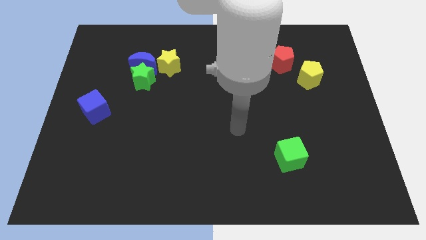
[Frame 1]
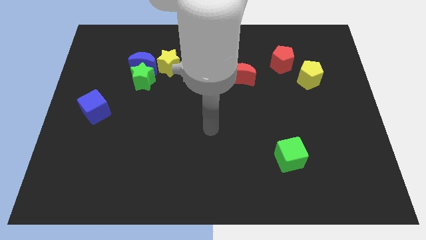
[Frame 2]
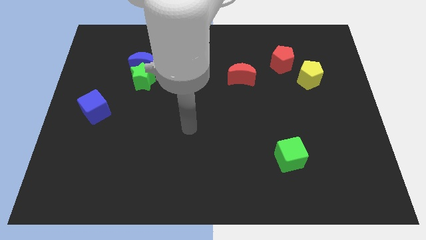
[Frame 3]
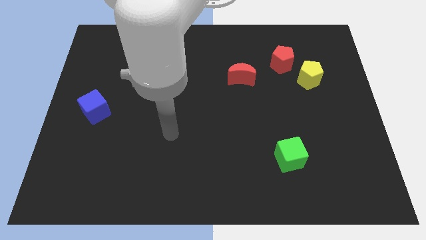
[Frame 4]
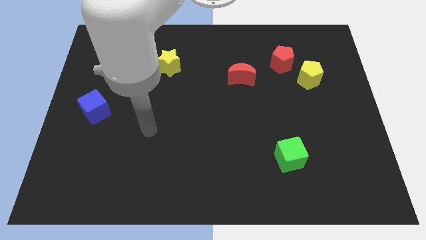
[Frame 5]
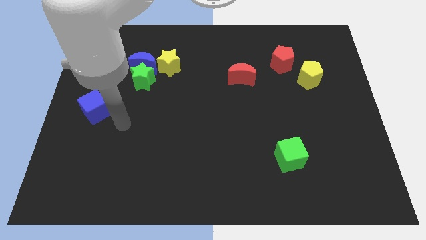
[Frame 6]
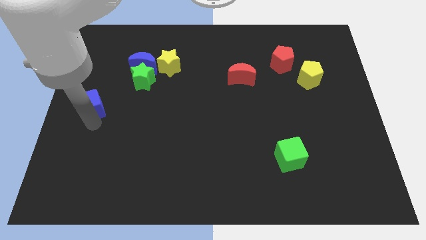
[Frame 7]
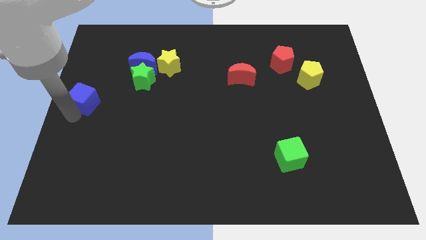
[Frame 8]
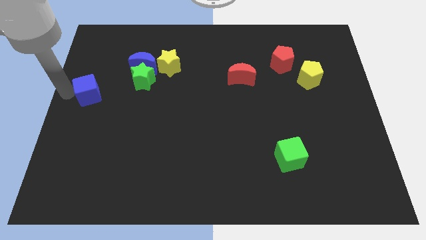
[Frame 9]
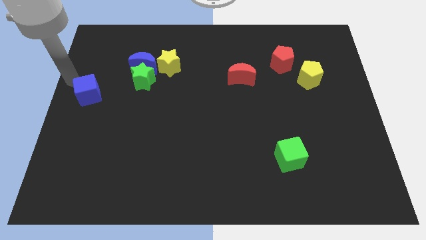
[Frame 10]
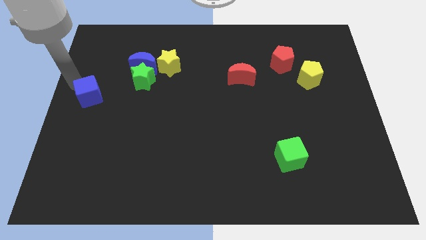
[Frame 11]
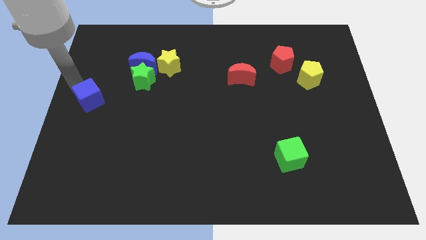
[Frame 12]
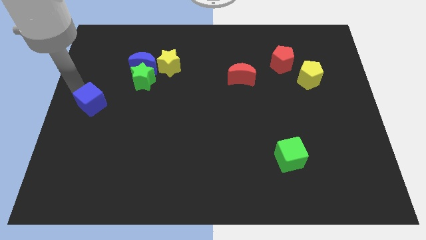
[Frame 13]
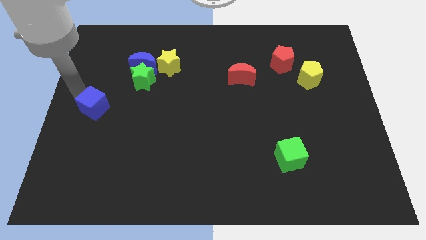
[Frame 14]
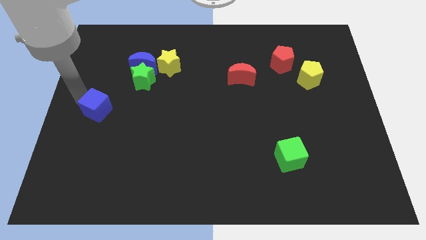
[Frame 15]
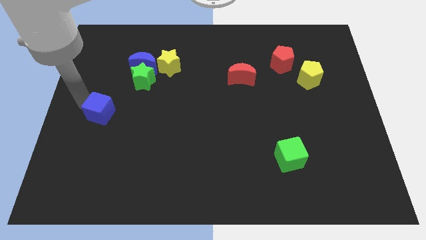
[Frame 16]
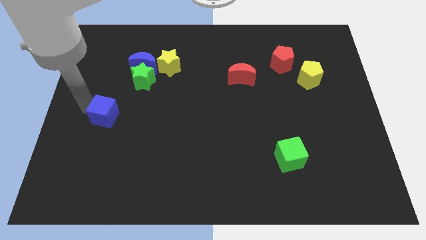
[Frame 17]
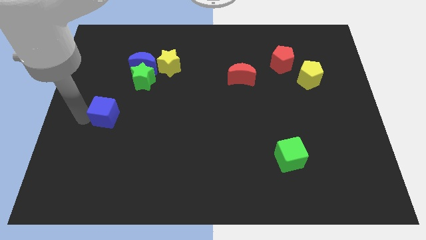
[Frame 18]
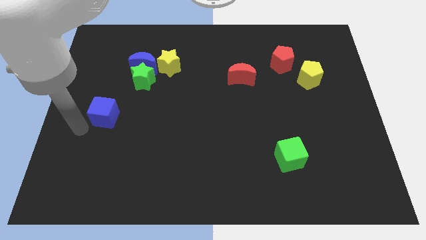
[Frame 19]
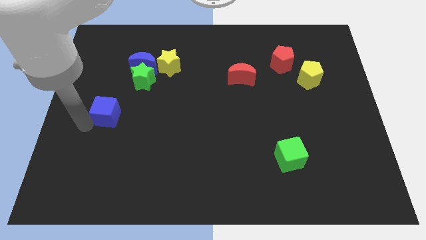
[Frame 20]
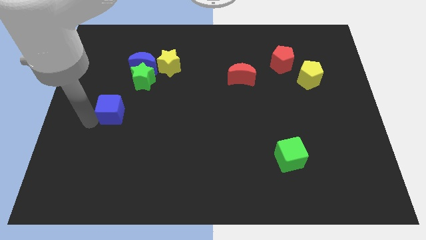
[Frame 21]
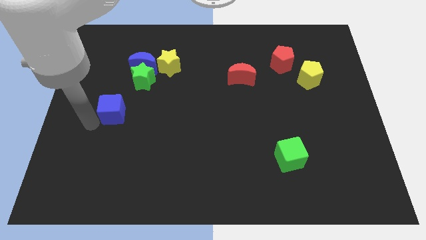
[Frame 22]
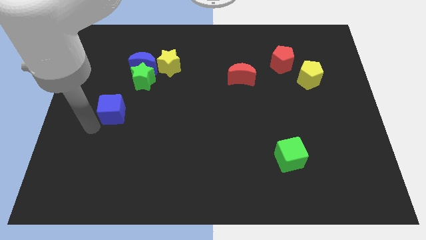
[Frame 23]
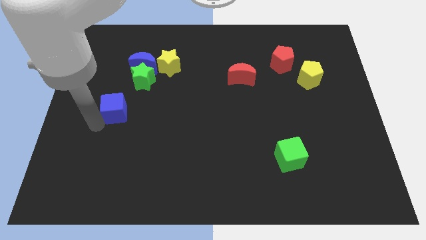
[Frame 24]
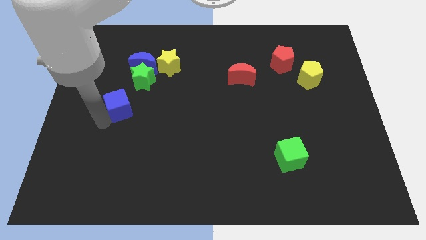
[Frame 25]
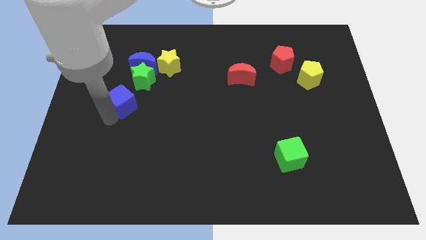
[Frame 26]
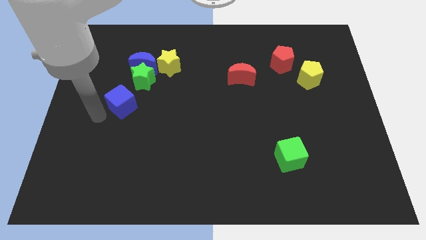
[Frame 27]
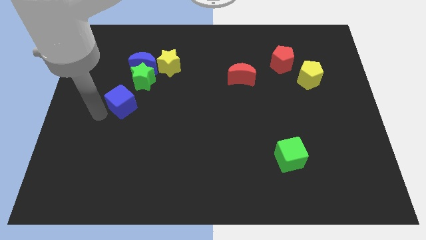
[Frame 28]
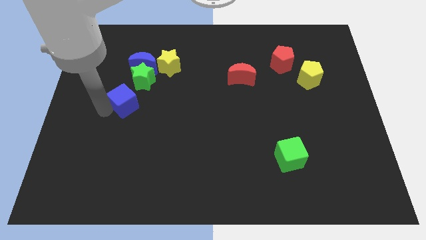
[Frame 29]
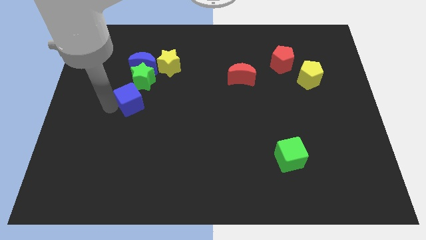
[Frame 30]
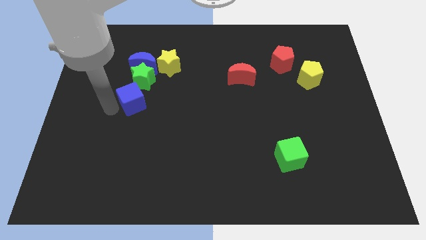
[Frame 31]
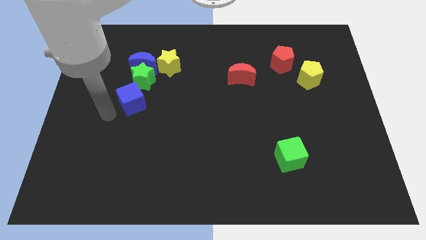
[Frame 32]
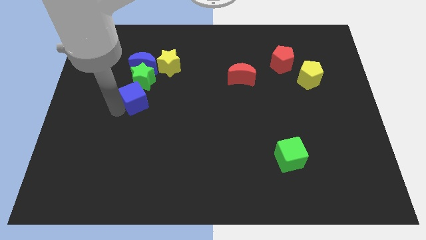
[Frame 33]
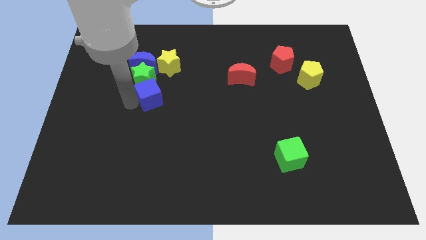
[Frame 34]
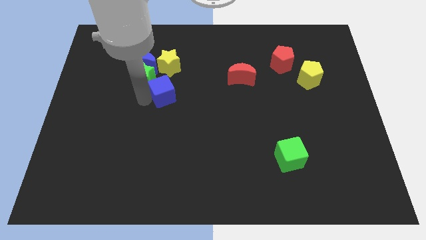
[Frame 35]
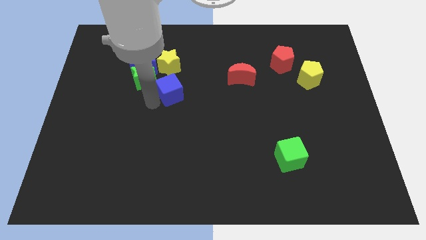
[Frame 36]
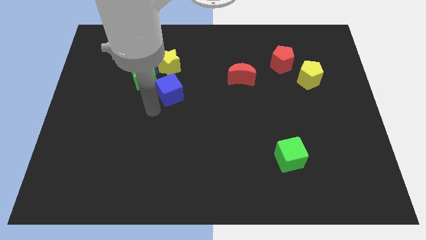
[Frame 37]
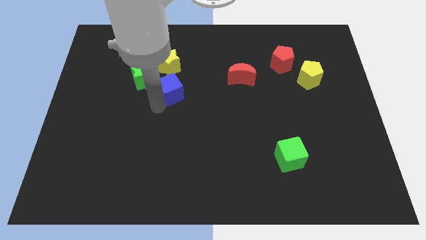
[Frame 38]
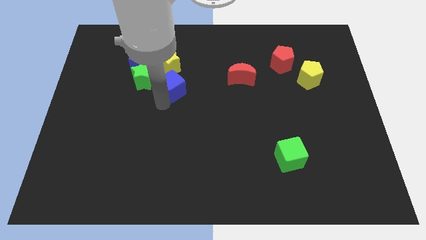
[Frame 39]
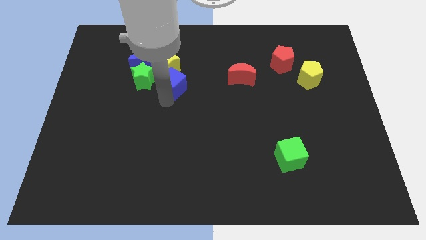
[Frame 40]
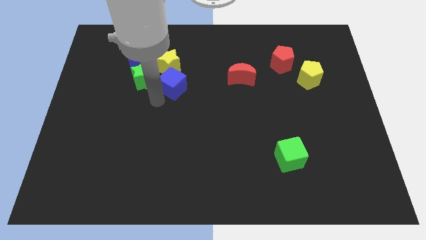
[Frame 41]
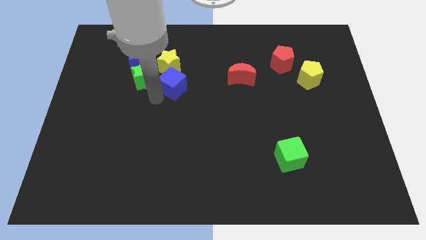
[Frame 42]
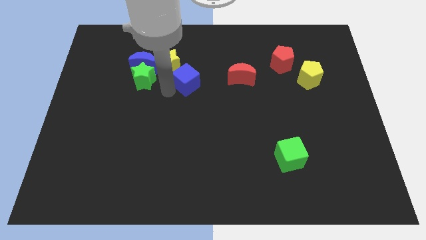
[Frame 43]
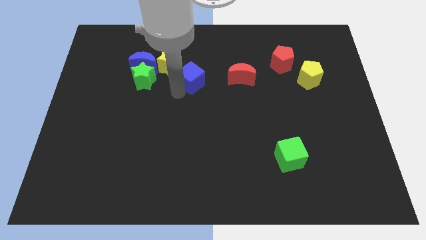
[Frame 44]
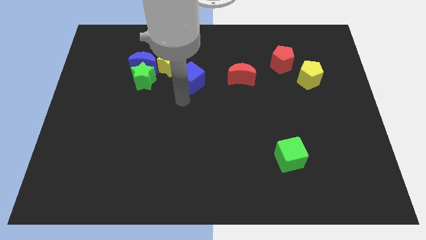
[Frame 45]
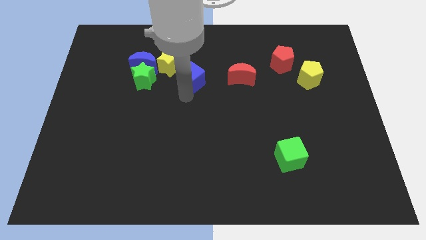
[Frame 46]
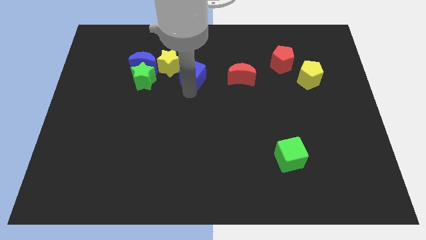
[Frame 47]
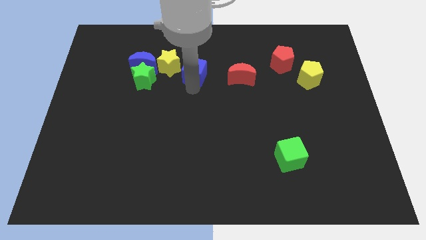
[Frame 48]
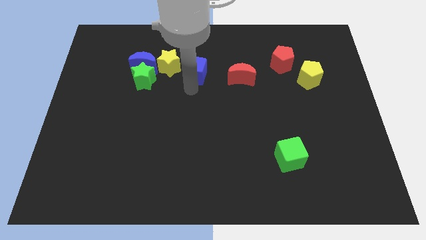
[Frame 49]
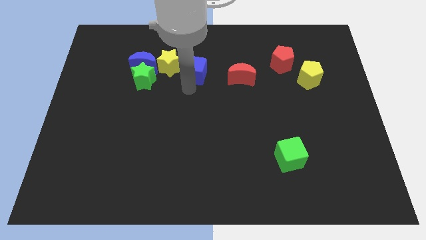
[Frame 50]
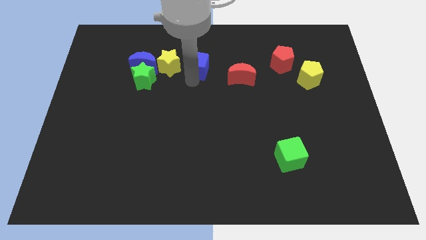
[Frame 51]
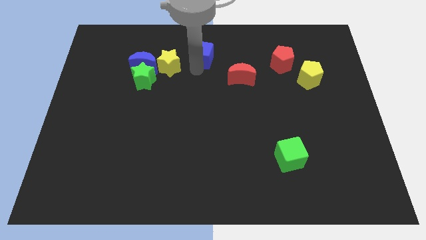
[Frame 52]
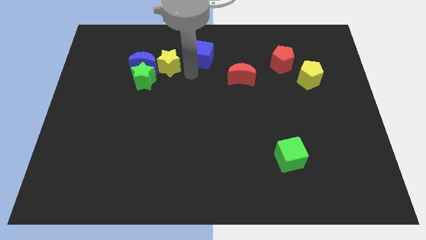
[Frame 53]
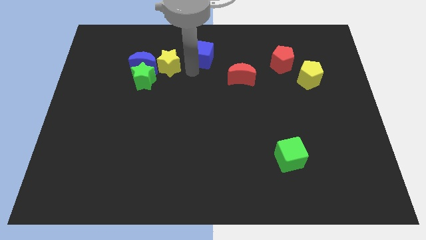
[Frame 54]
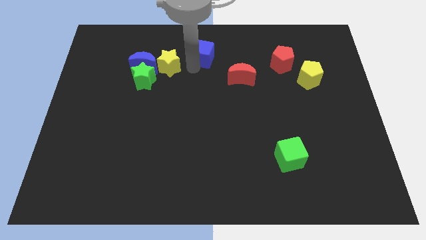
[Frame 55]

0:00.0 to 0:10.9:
move the blue cube to the top side

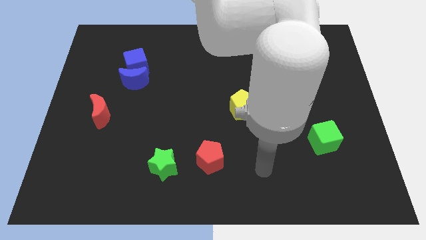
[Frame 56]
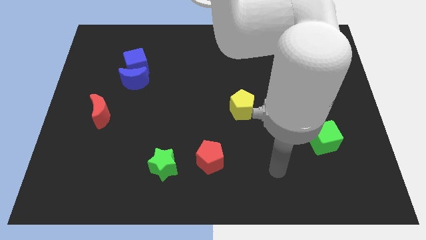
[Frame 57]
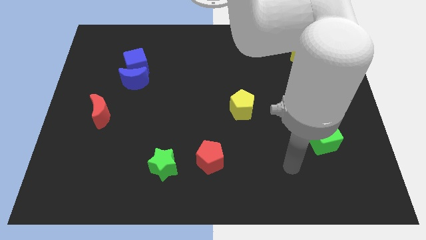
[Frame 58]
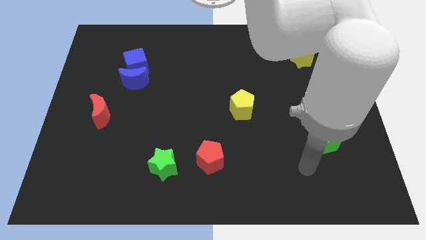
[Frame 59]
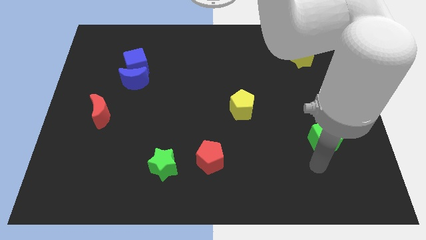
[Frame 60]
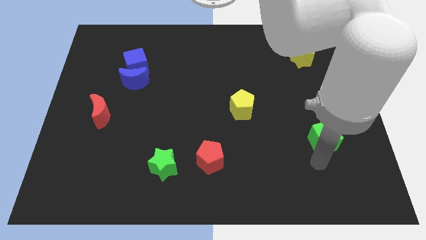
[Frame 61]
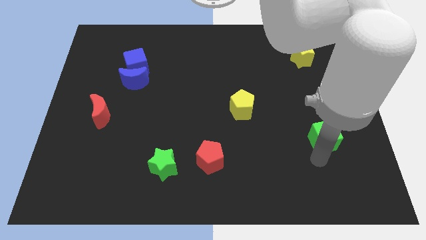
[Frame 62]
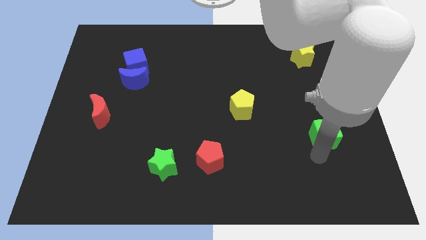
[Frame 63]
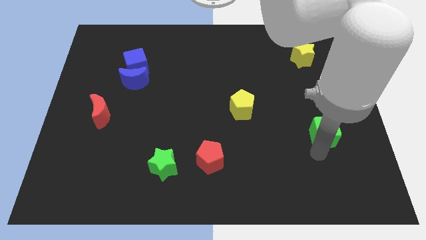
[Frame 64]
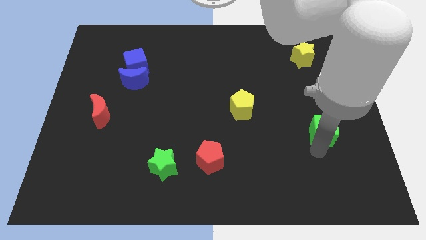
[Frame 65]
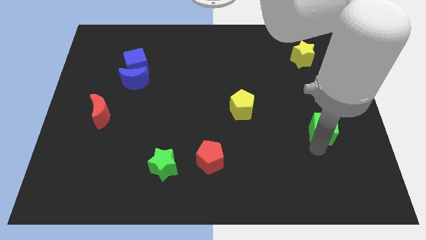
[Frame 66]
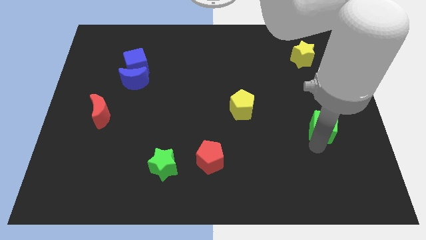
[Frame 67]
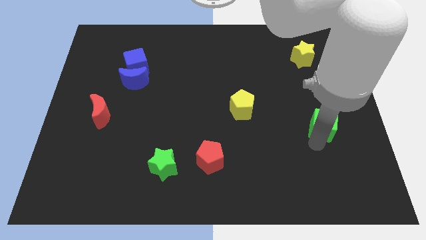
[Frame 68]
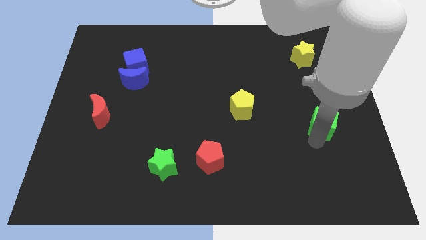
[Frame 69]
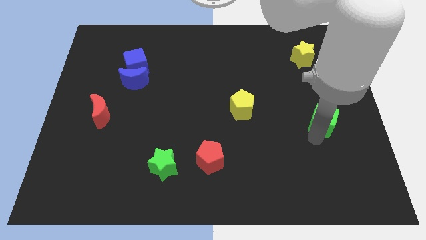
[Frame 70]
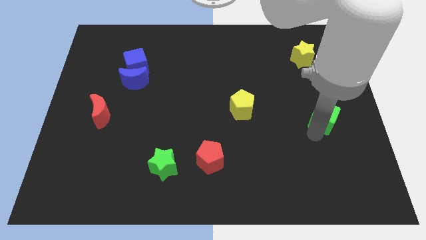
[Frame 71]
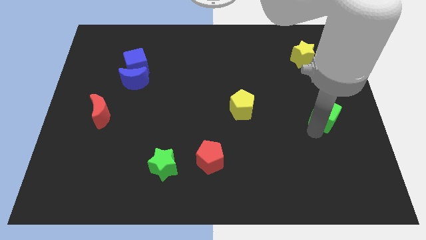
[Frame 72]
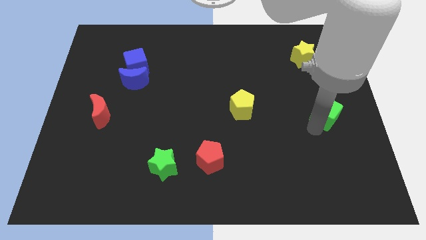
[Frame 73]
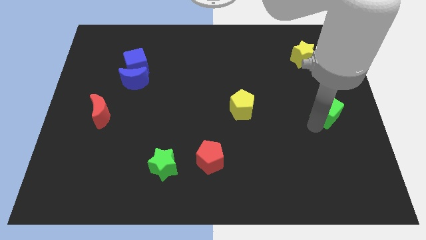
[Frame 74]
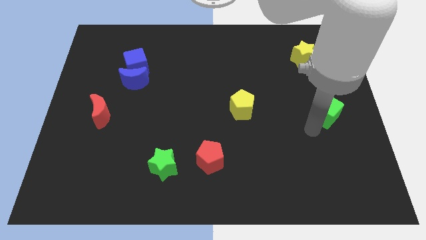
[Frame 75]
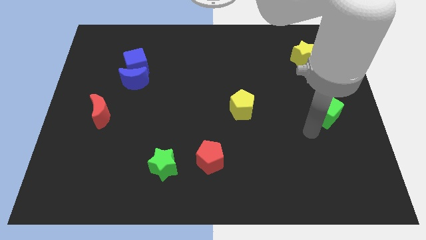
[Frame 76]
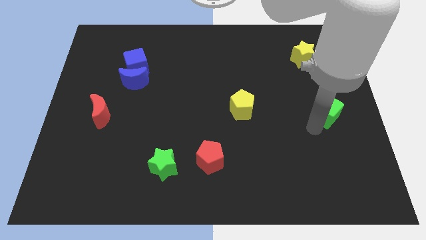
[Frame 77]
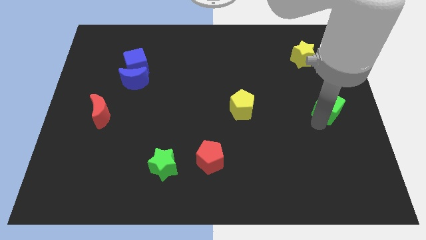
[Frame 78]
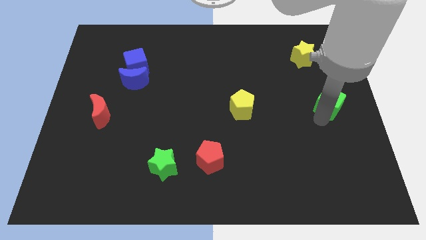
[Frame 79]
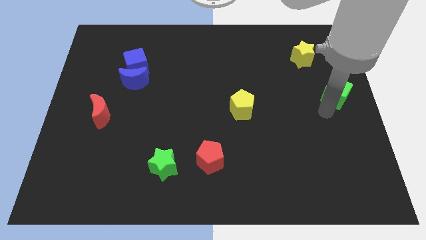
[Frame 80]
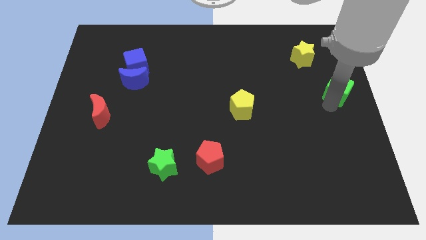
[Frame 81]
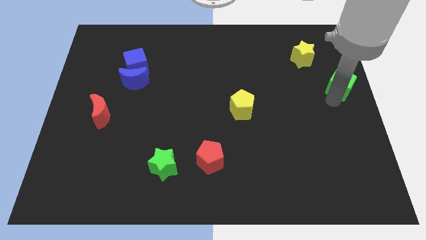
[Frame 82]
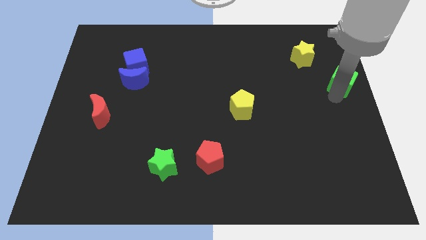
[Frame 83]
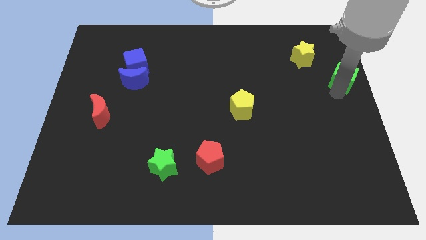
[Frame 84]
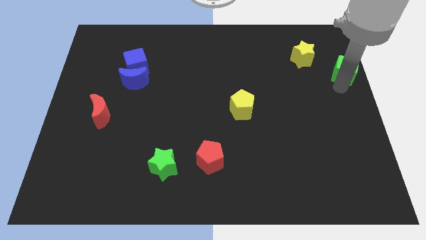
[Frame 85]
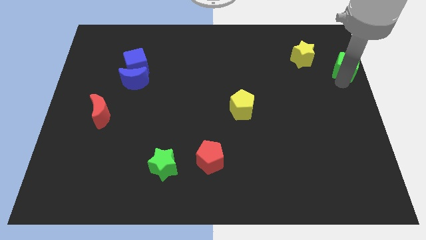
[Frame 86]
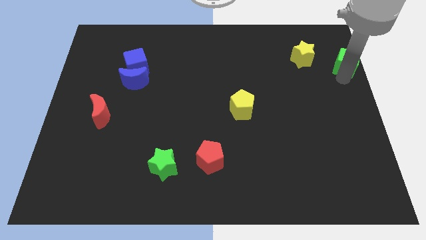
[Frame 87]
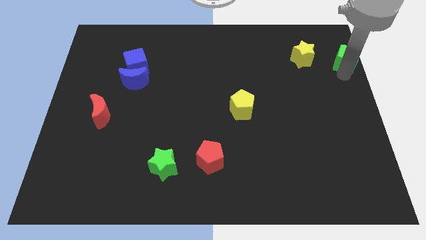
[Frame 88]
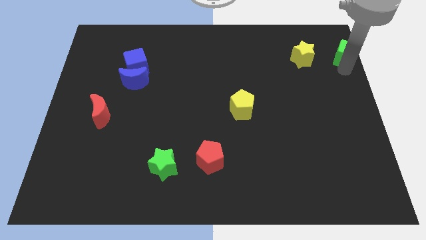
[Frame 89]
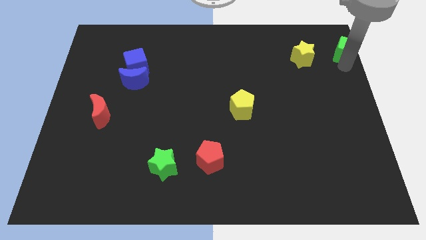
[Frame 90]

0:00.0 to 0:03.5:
move the green cube to the top right of the board
